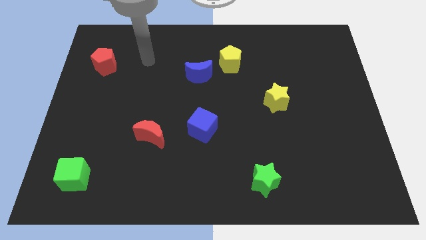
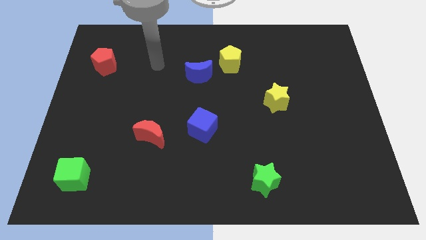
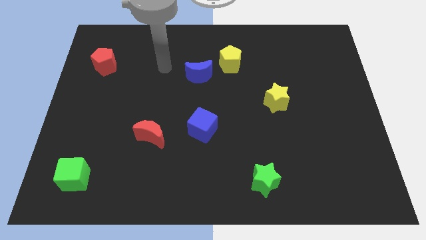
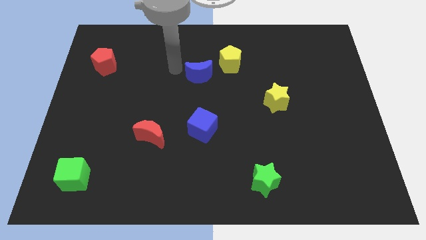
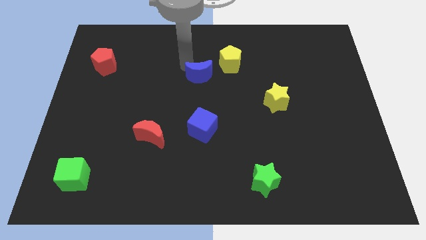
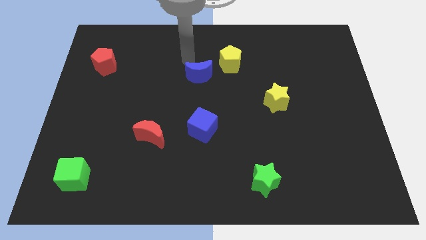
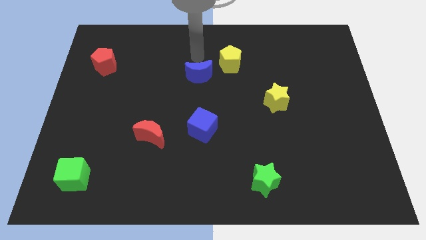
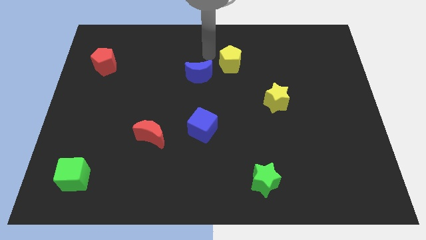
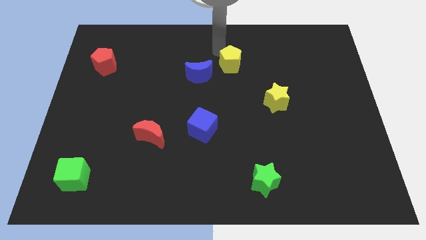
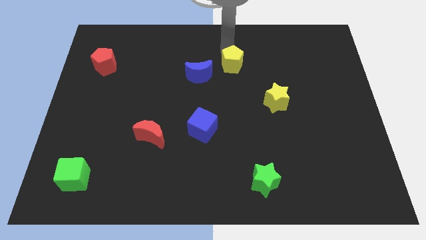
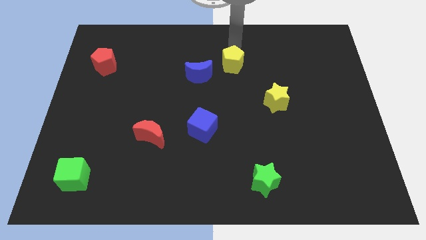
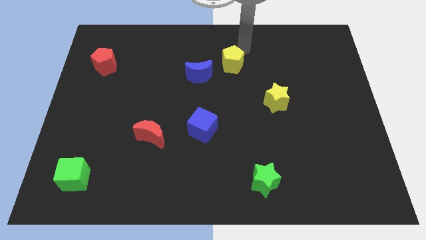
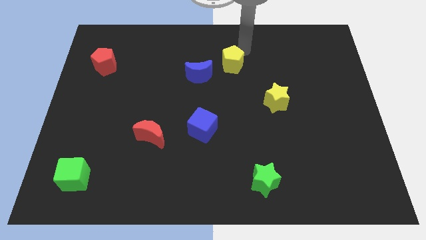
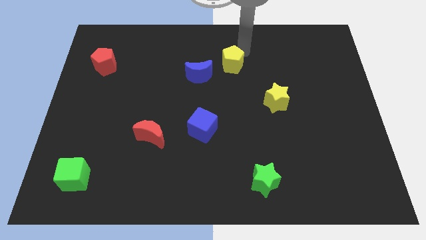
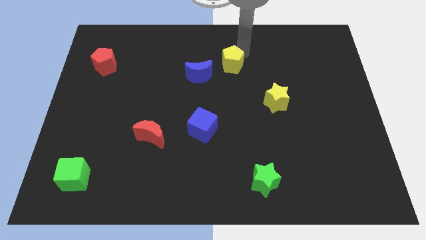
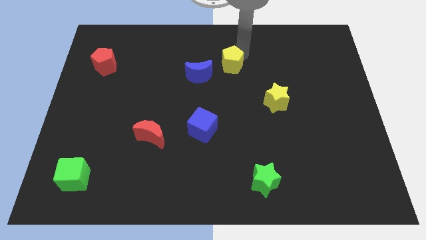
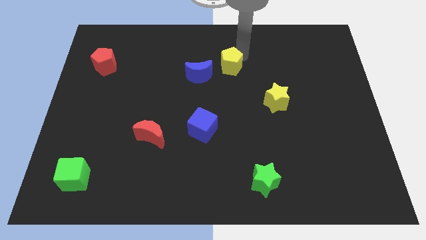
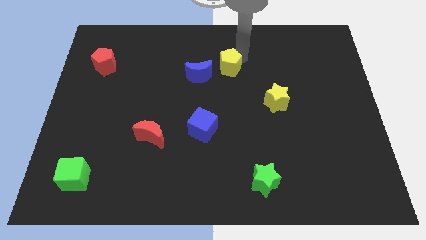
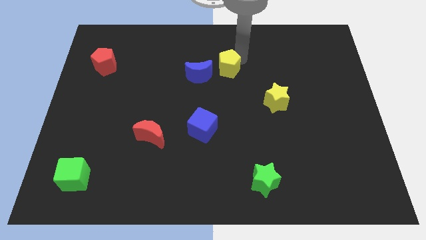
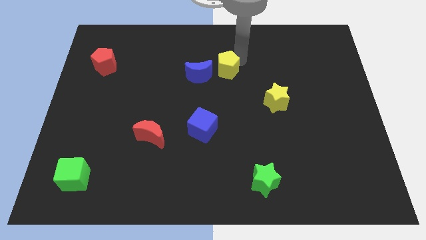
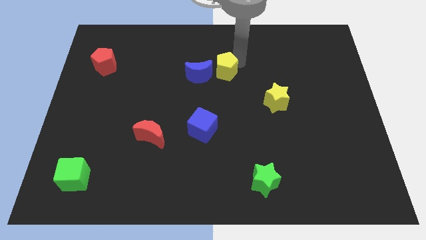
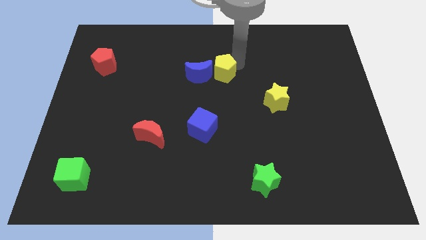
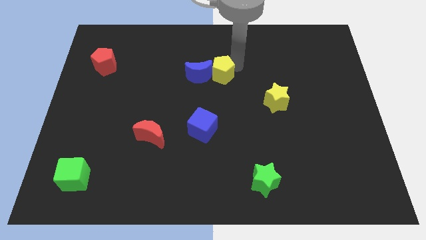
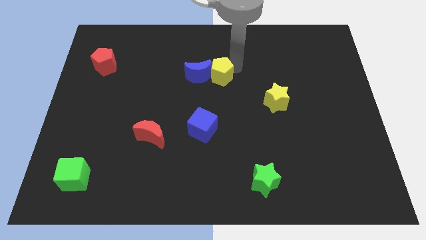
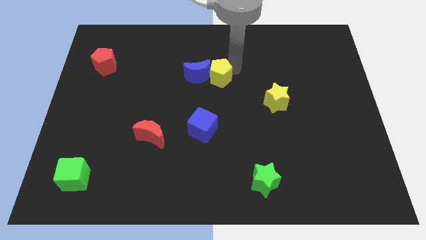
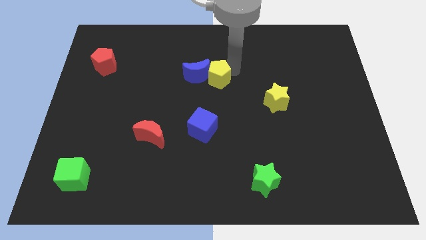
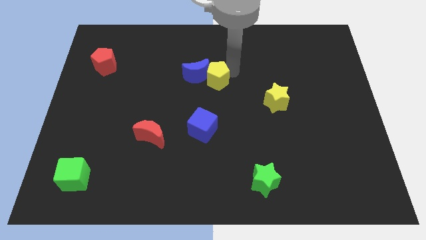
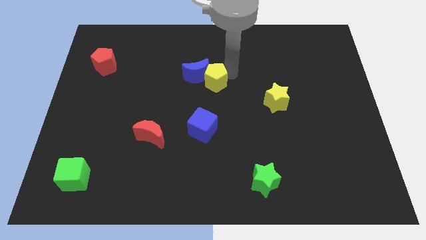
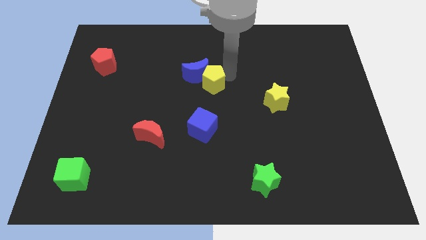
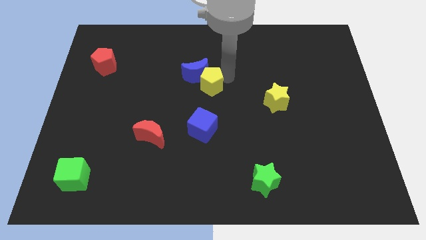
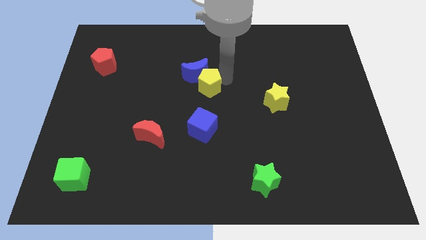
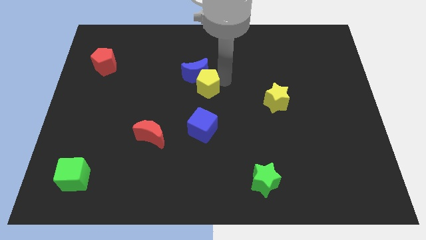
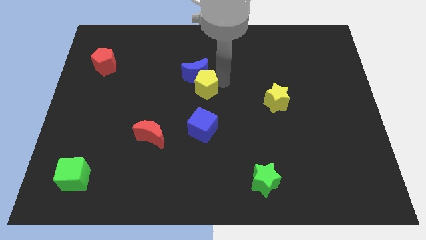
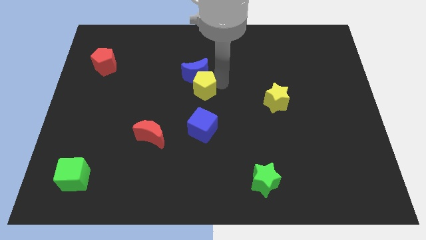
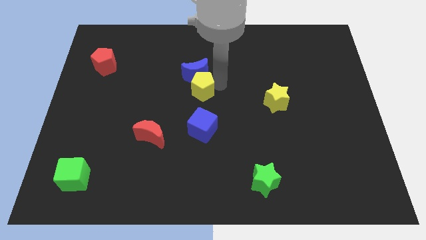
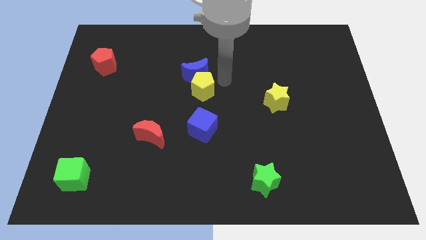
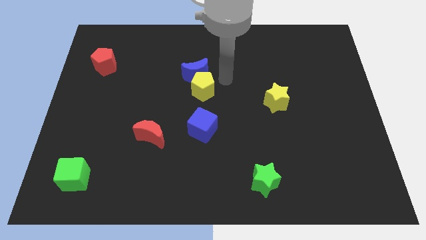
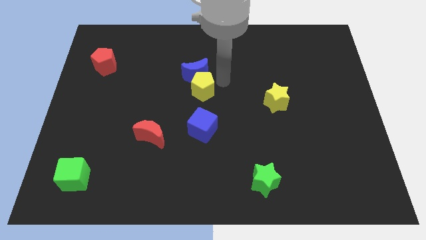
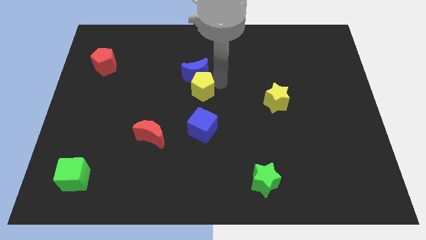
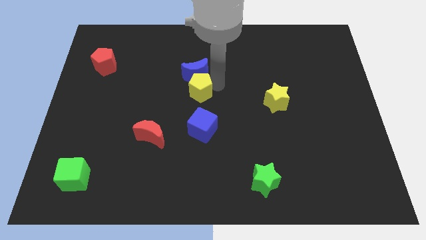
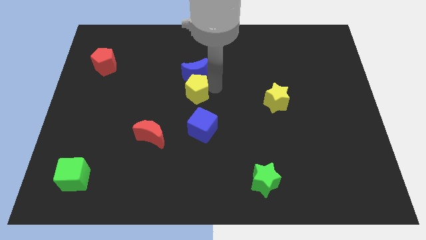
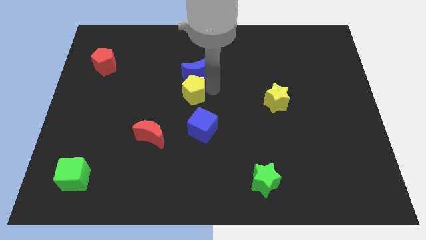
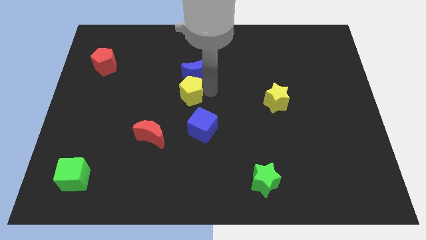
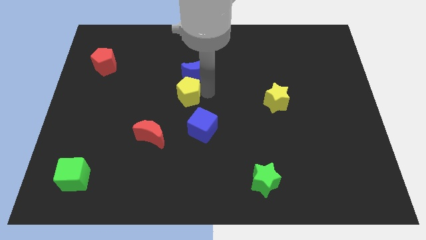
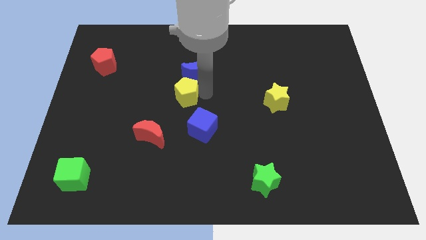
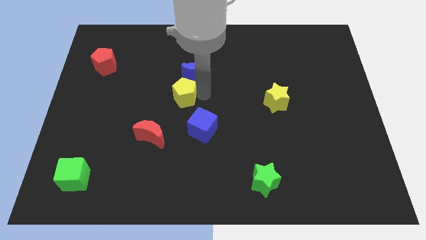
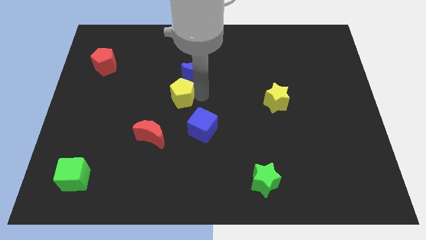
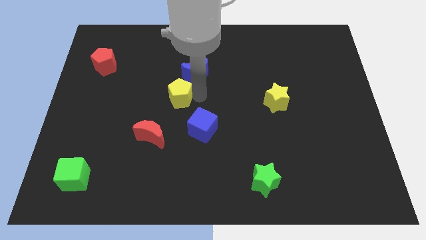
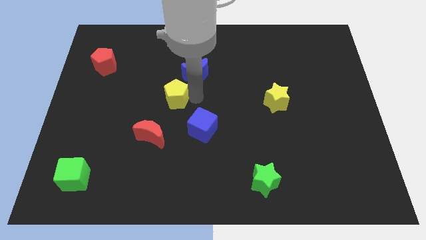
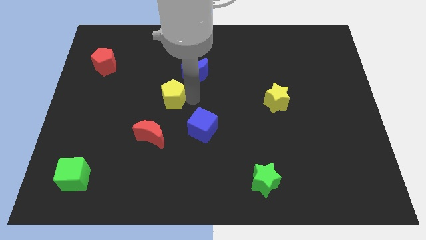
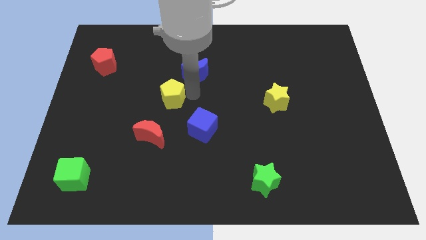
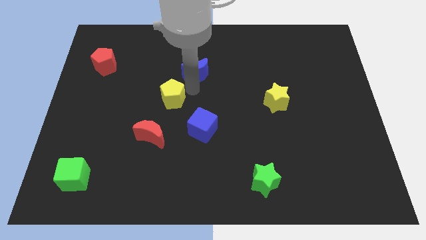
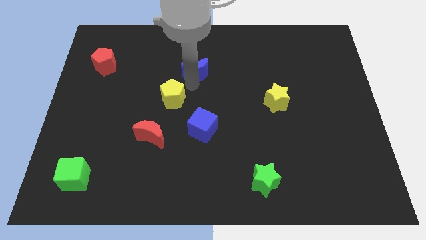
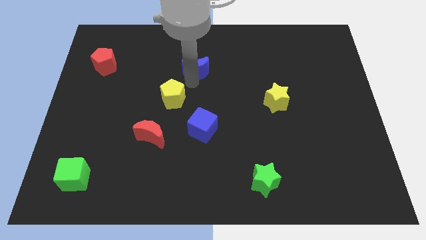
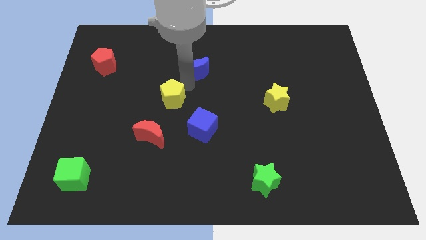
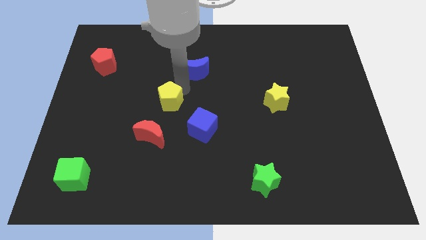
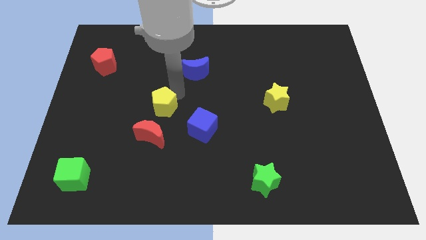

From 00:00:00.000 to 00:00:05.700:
move the yellow pentagon downwards and then to the left

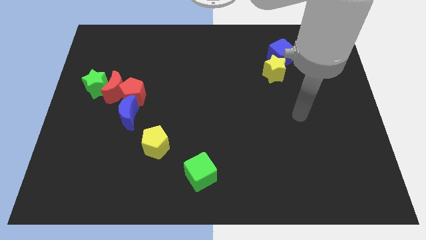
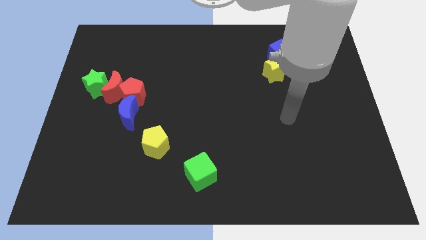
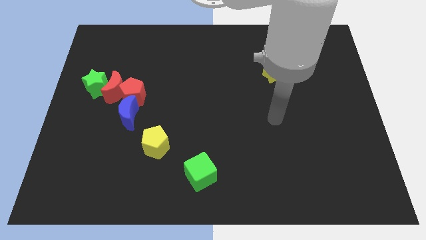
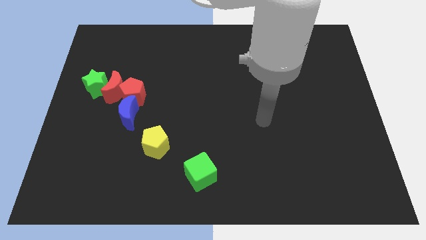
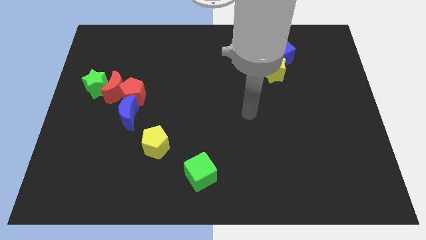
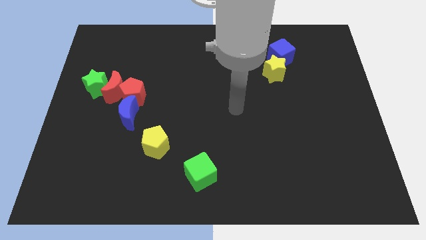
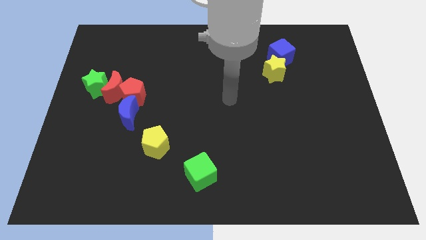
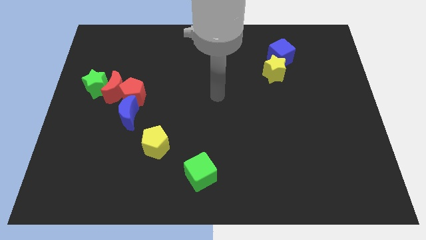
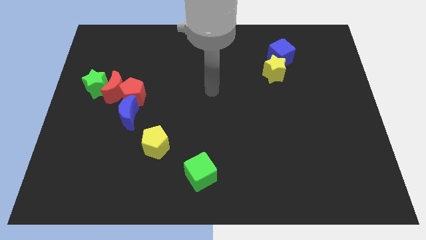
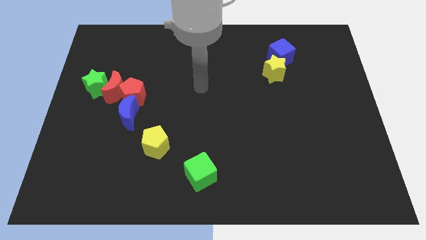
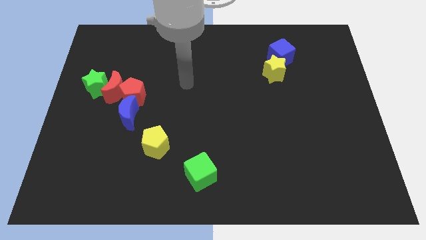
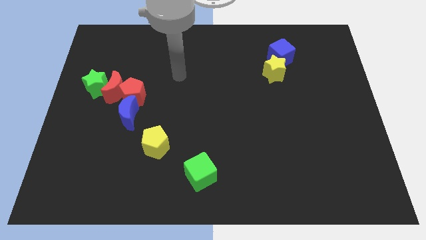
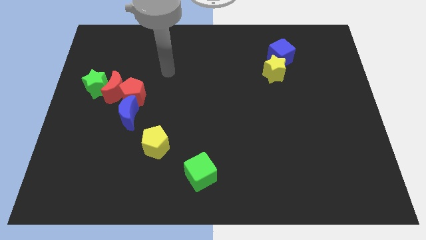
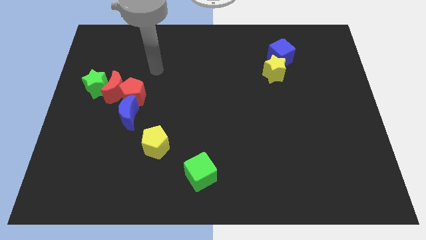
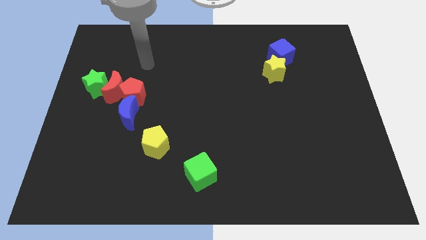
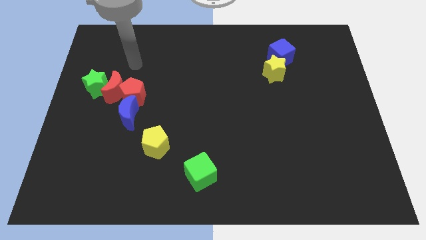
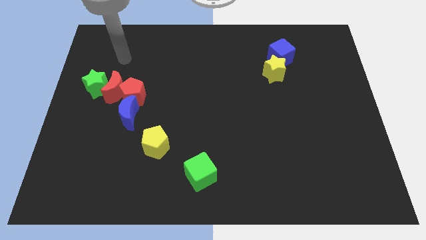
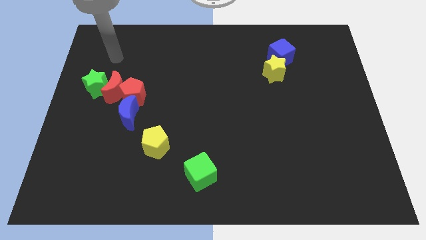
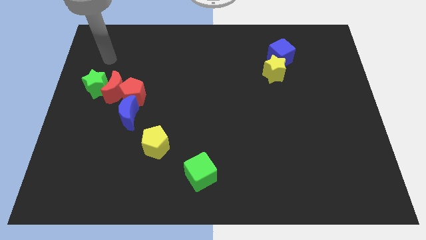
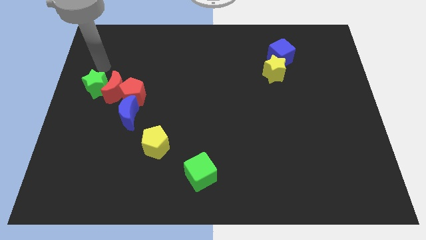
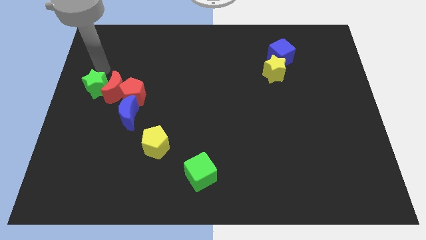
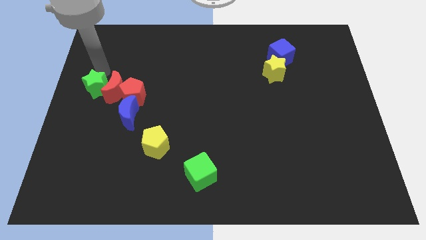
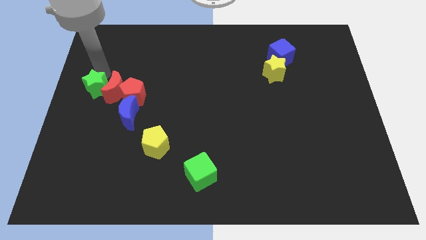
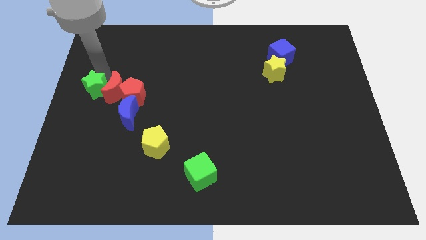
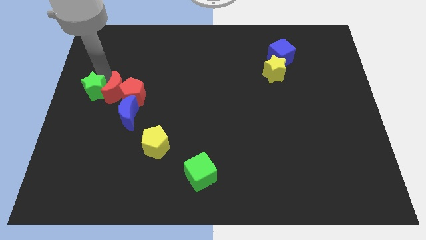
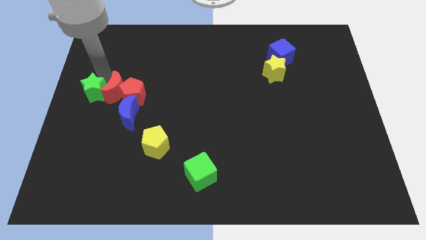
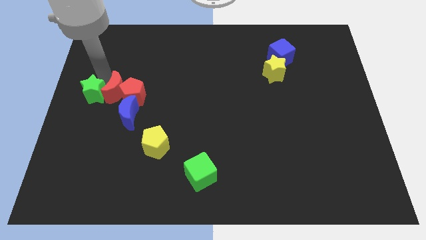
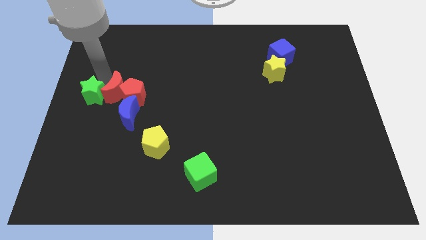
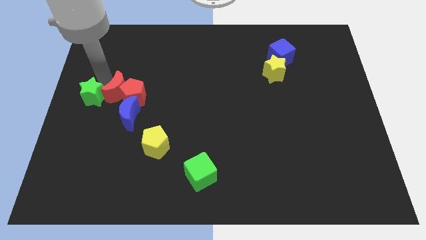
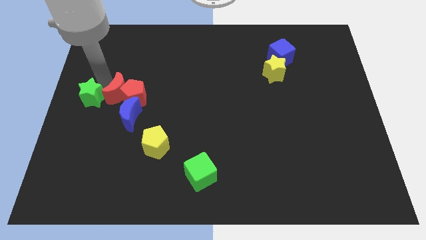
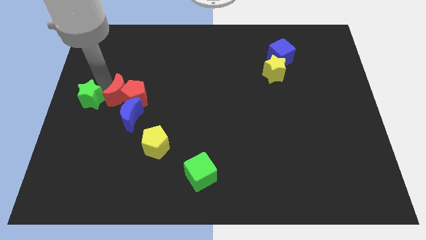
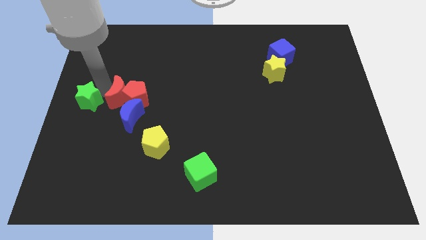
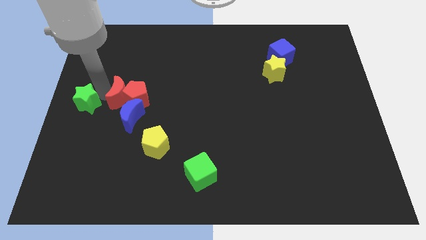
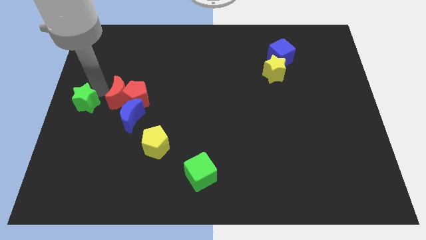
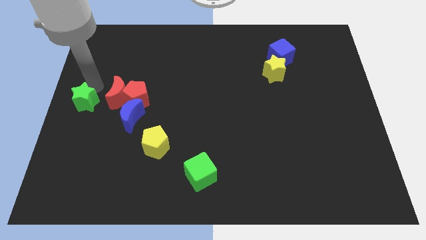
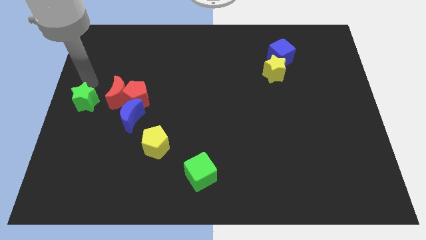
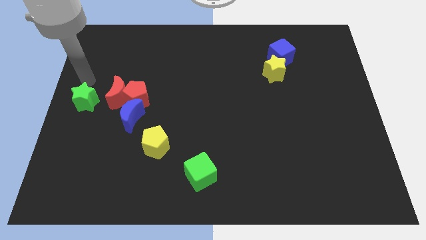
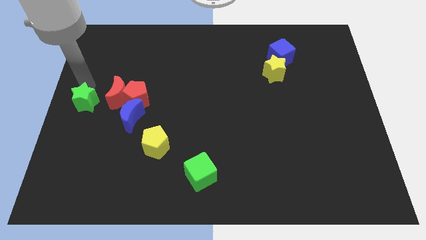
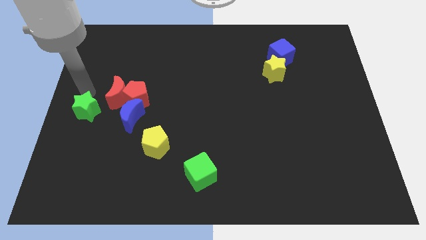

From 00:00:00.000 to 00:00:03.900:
move the green star down slightly
